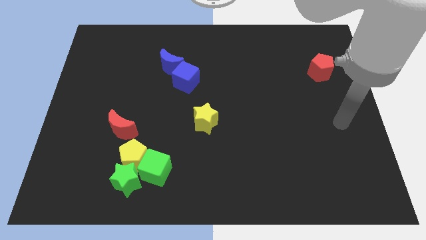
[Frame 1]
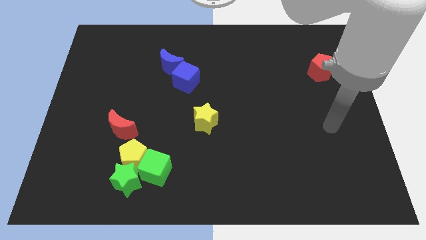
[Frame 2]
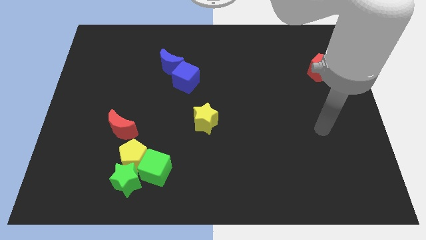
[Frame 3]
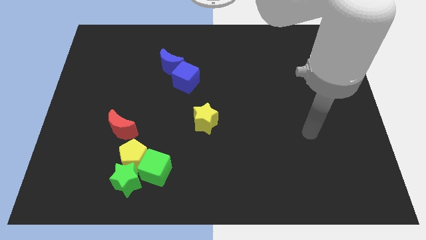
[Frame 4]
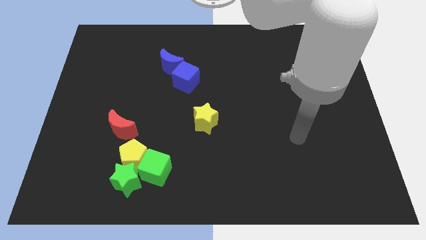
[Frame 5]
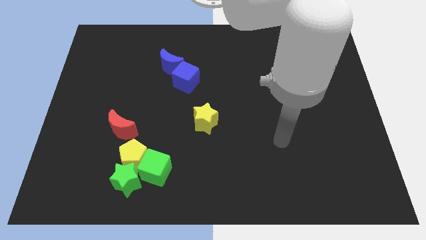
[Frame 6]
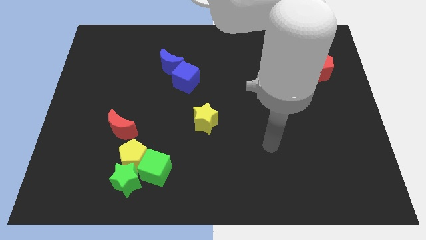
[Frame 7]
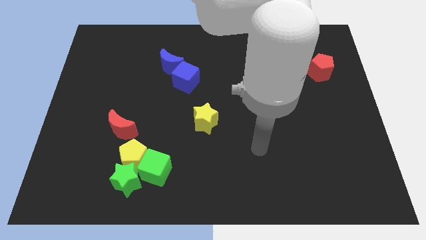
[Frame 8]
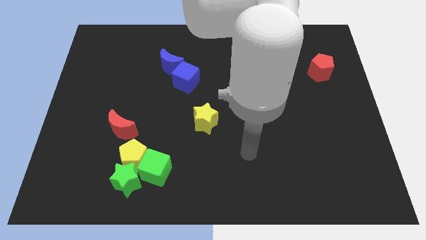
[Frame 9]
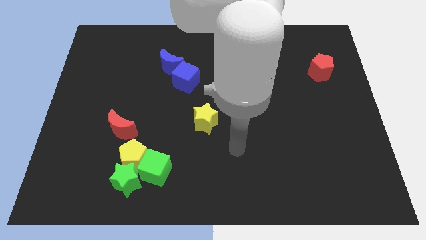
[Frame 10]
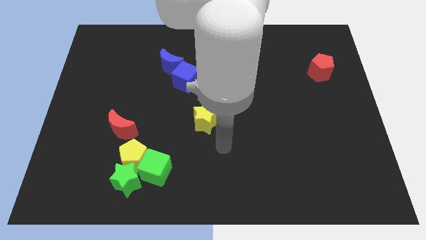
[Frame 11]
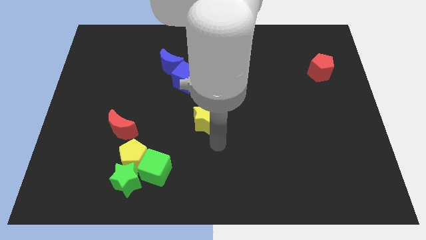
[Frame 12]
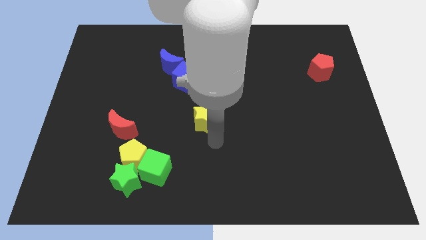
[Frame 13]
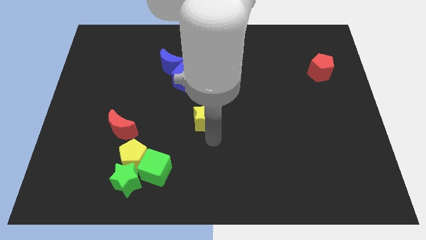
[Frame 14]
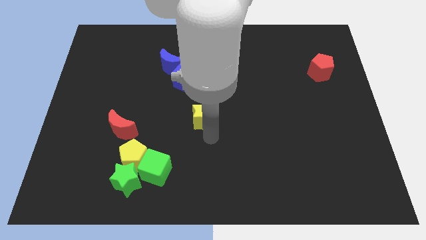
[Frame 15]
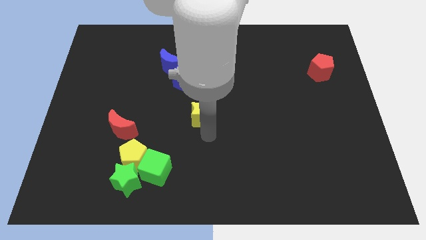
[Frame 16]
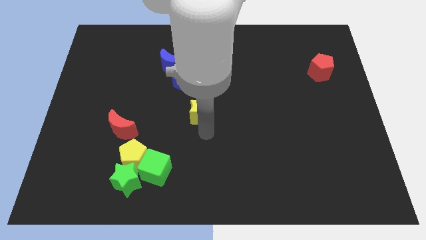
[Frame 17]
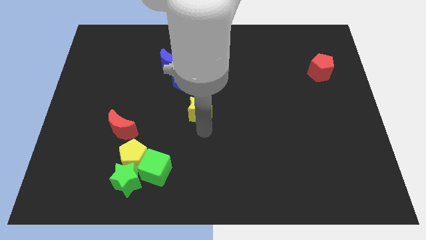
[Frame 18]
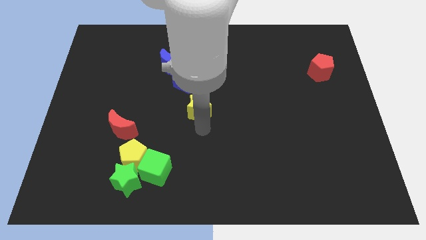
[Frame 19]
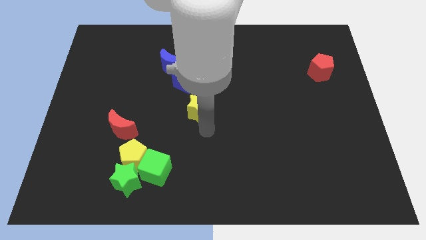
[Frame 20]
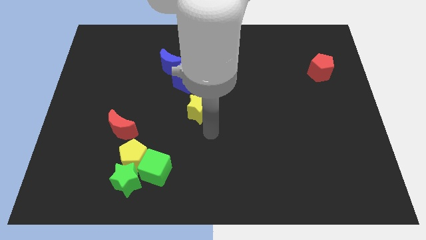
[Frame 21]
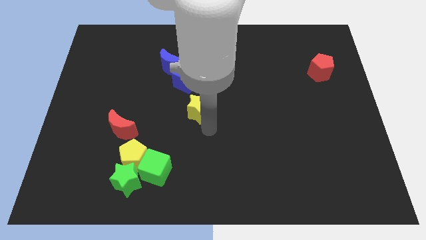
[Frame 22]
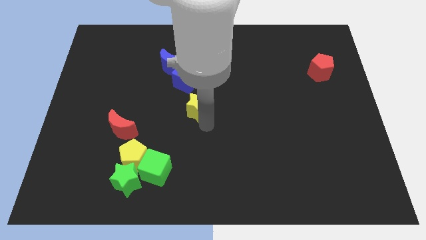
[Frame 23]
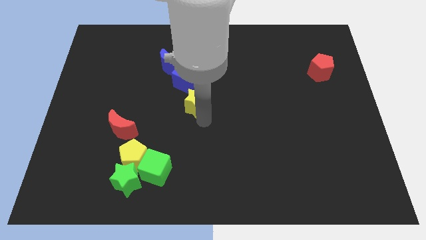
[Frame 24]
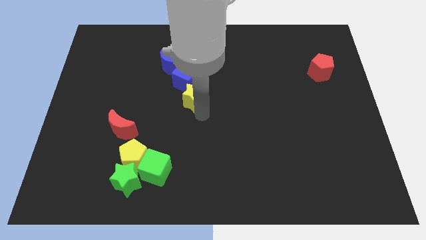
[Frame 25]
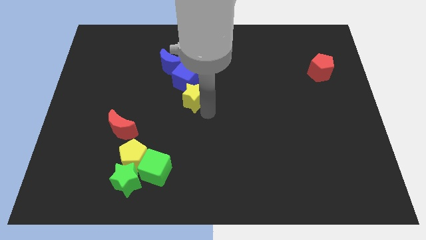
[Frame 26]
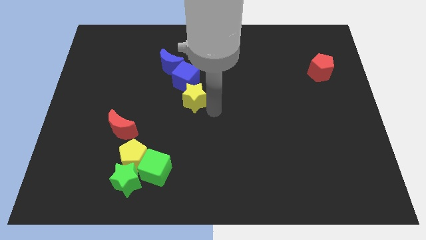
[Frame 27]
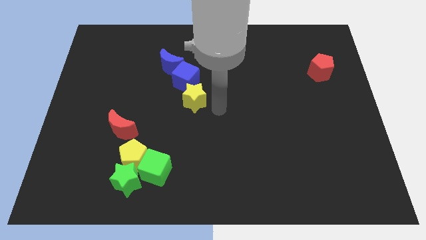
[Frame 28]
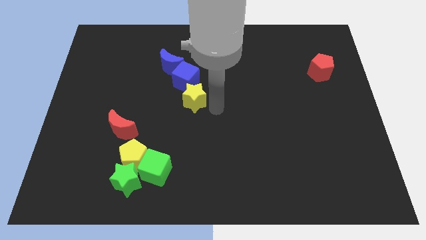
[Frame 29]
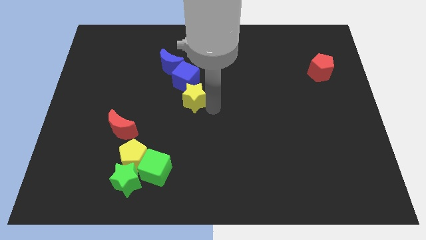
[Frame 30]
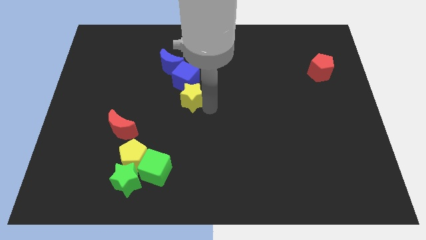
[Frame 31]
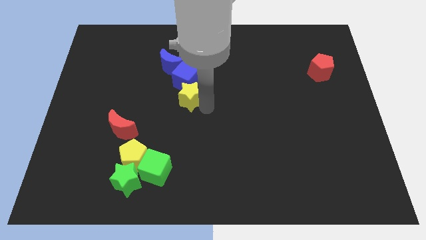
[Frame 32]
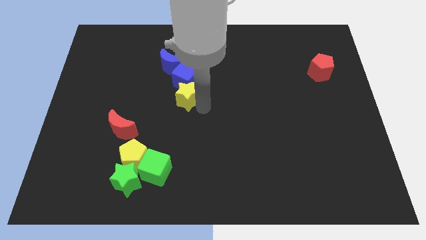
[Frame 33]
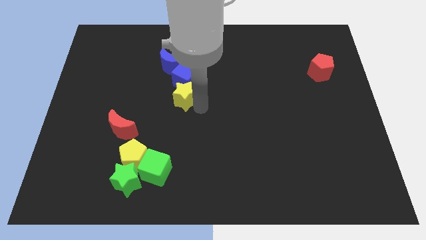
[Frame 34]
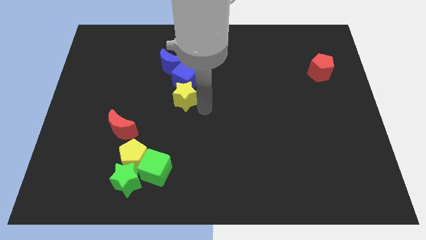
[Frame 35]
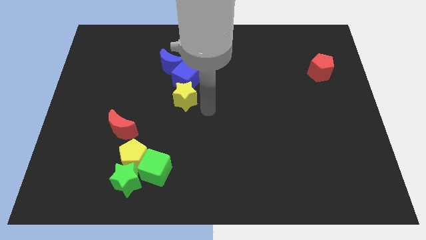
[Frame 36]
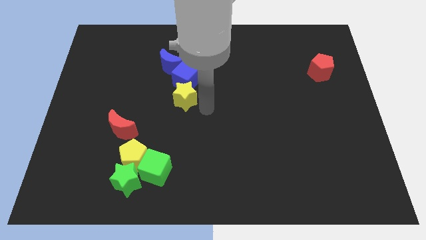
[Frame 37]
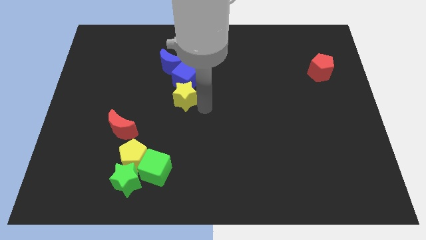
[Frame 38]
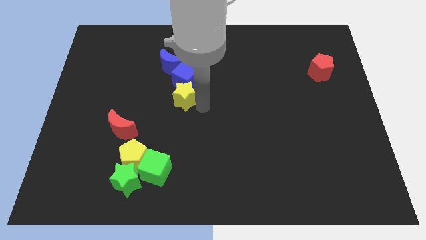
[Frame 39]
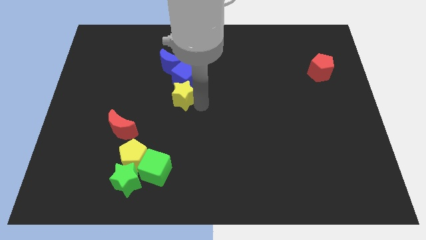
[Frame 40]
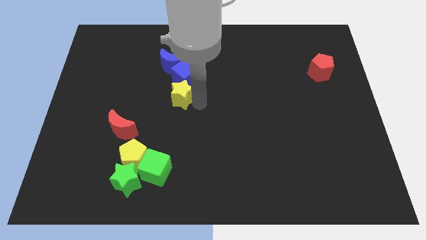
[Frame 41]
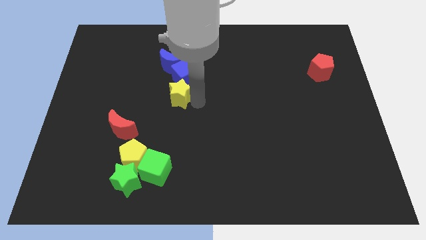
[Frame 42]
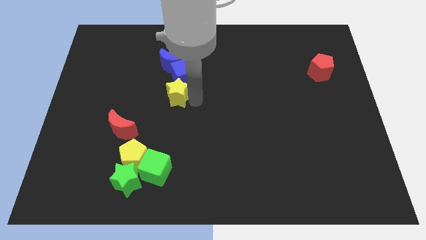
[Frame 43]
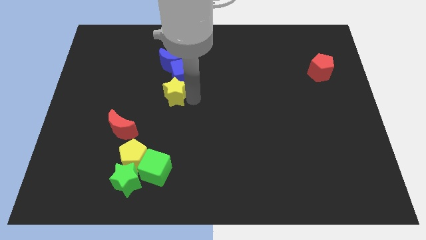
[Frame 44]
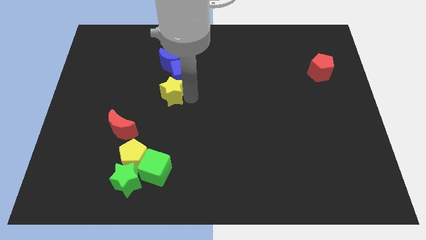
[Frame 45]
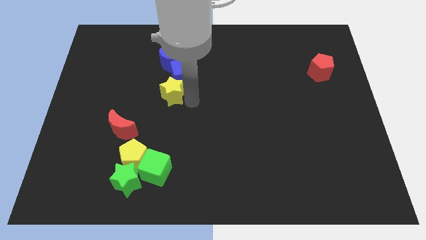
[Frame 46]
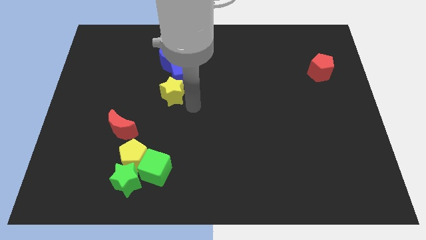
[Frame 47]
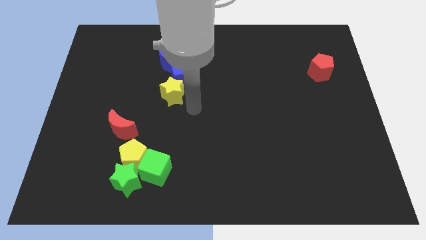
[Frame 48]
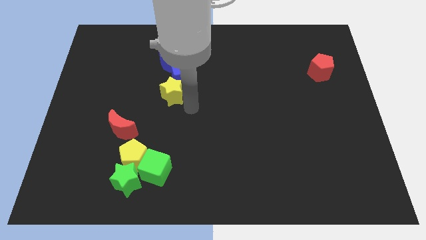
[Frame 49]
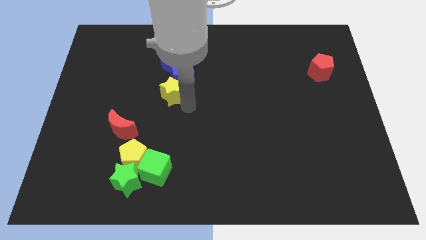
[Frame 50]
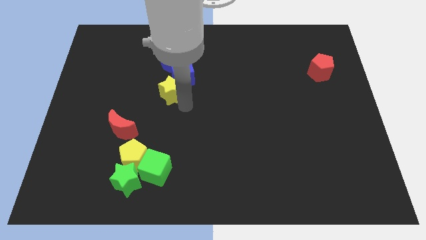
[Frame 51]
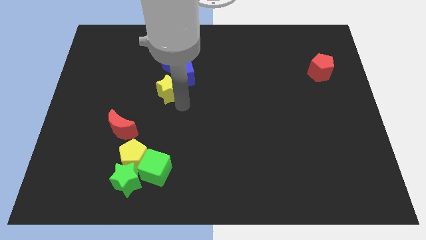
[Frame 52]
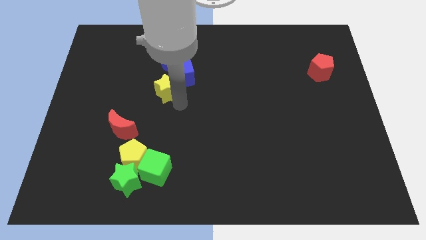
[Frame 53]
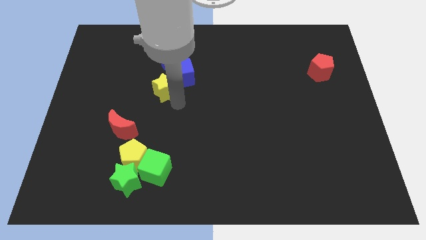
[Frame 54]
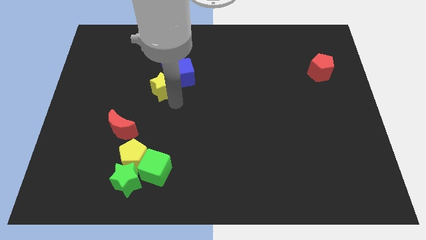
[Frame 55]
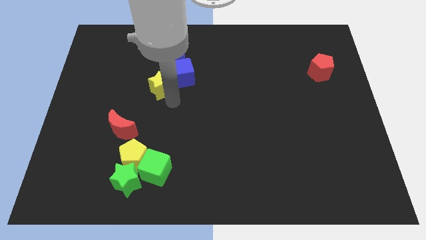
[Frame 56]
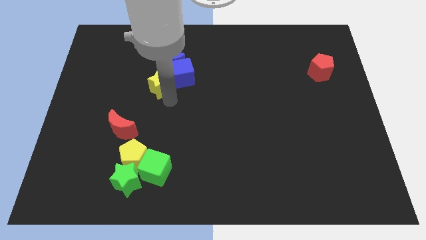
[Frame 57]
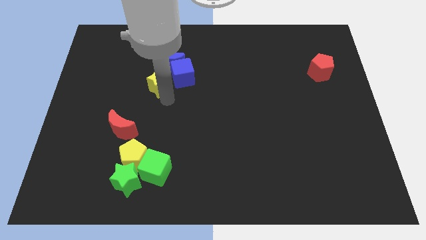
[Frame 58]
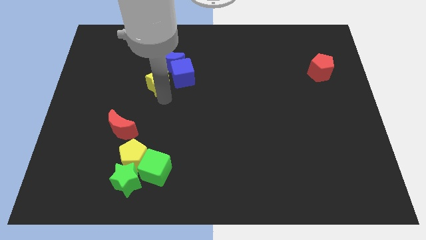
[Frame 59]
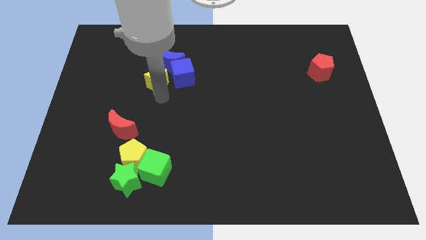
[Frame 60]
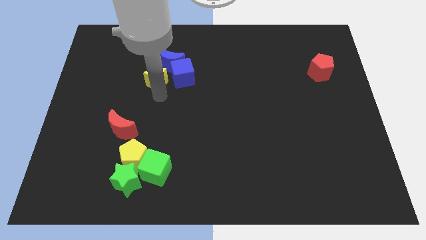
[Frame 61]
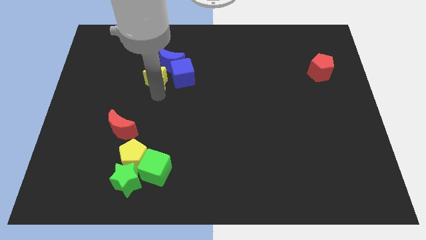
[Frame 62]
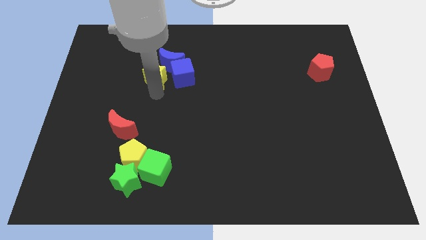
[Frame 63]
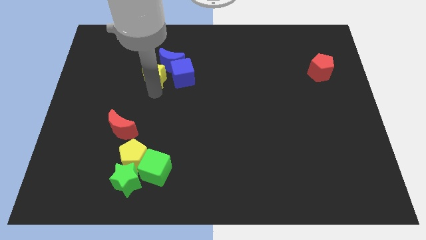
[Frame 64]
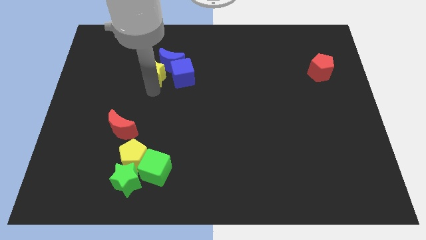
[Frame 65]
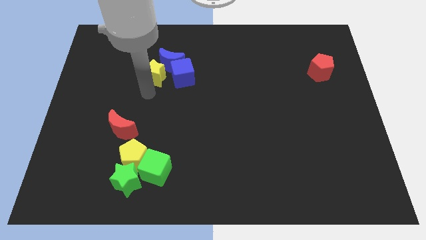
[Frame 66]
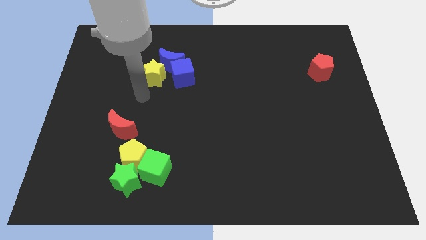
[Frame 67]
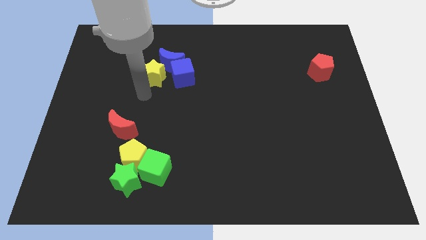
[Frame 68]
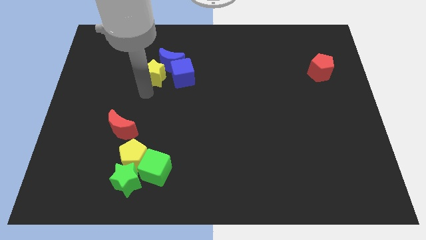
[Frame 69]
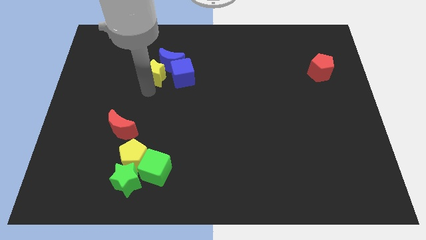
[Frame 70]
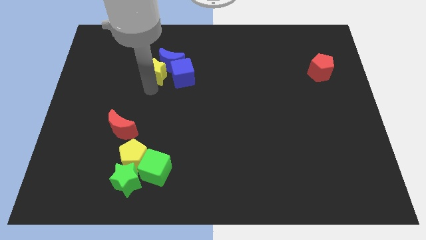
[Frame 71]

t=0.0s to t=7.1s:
push the yellow star diagonally up and to the left of the blue cube
